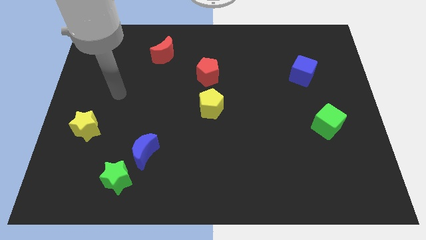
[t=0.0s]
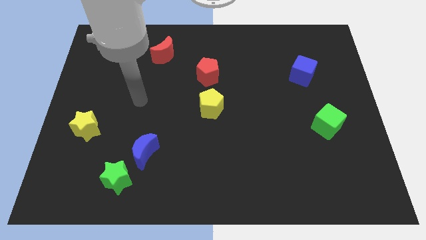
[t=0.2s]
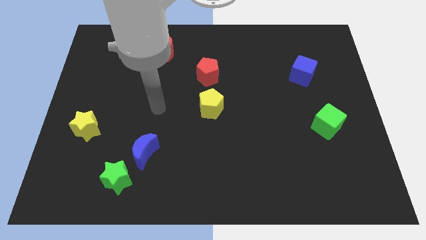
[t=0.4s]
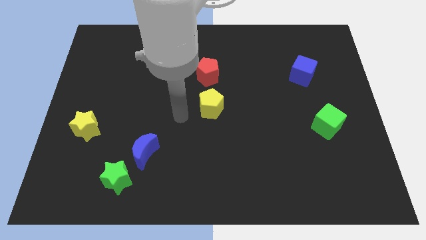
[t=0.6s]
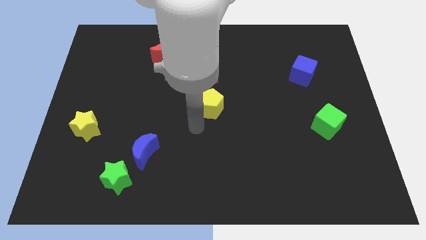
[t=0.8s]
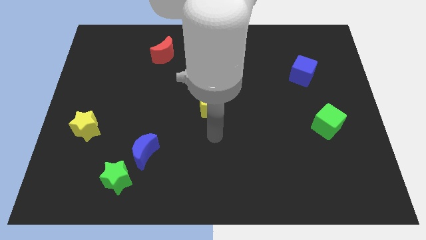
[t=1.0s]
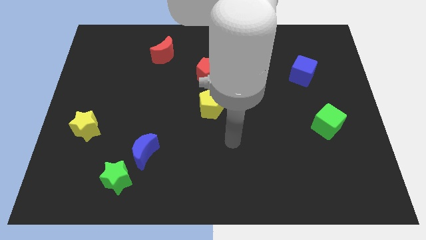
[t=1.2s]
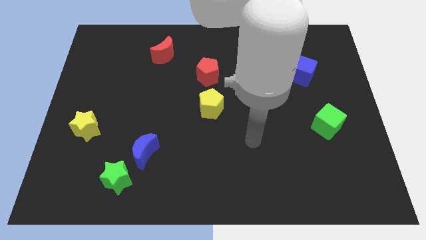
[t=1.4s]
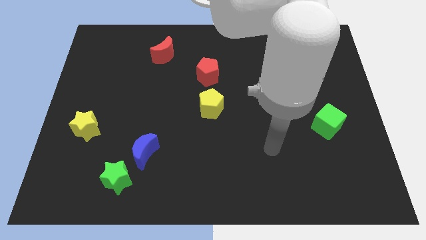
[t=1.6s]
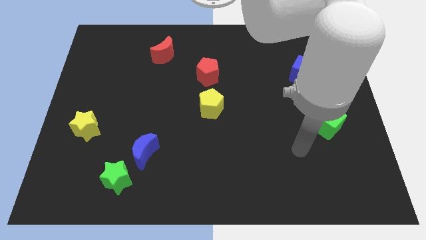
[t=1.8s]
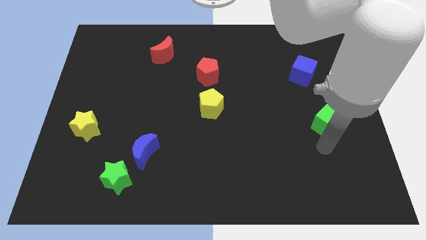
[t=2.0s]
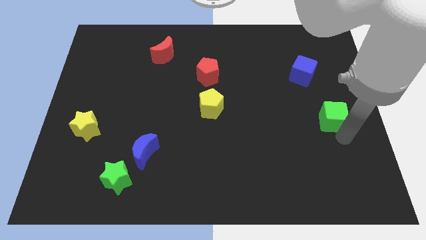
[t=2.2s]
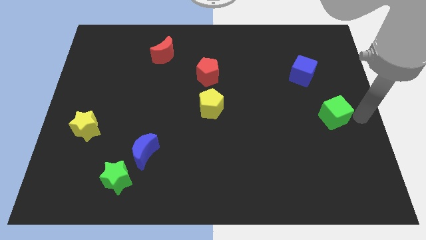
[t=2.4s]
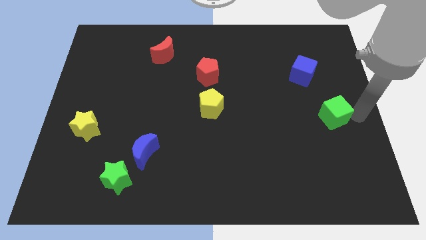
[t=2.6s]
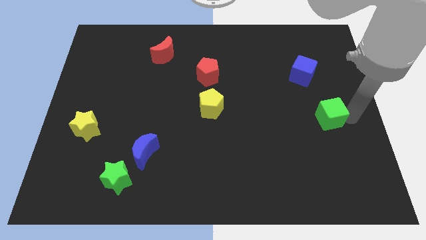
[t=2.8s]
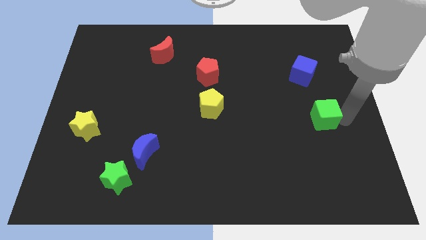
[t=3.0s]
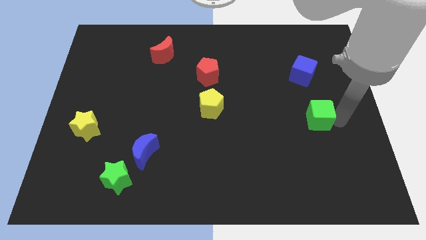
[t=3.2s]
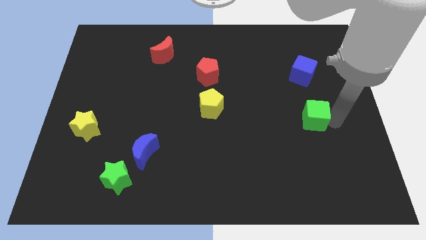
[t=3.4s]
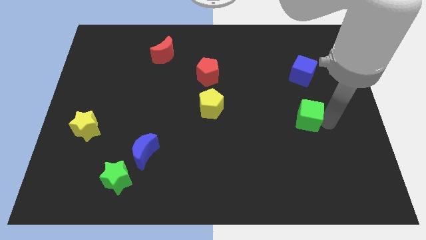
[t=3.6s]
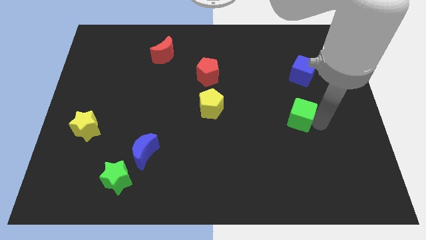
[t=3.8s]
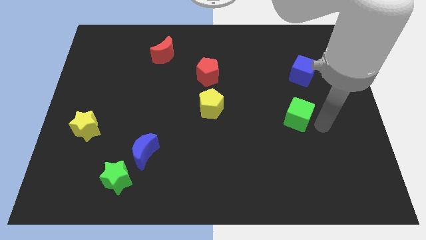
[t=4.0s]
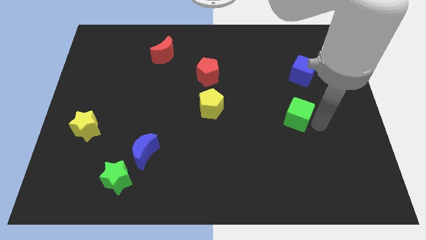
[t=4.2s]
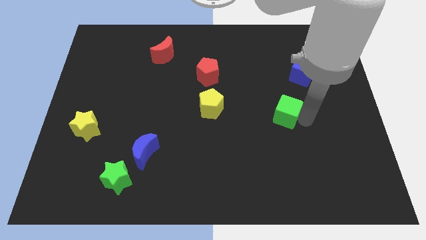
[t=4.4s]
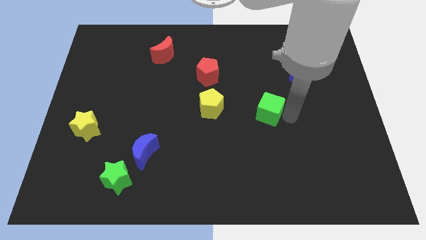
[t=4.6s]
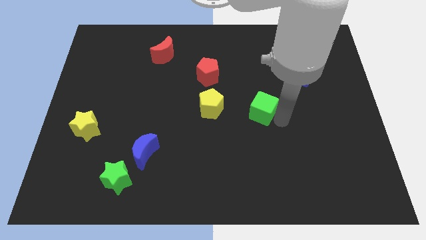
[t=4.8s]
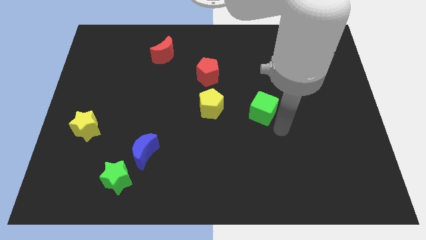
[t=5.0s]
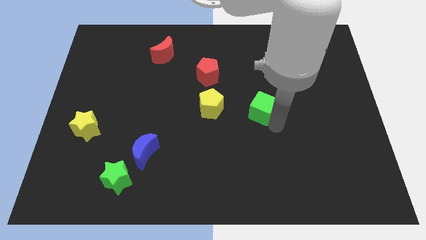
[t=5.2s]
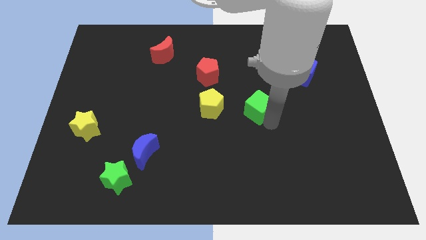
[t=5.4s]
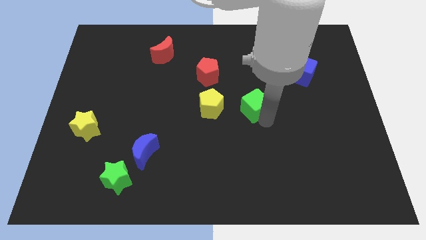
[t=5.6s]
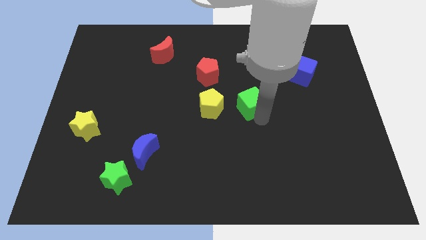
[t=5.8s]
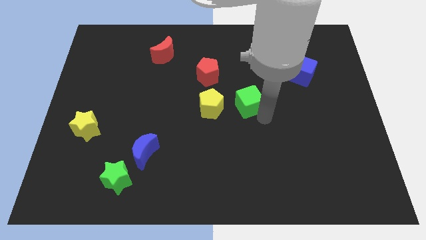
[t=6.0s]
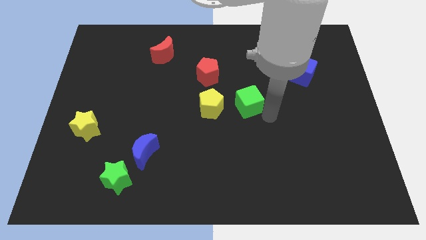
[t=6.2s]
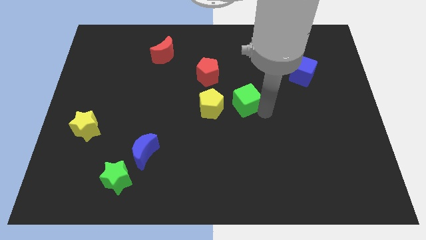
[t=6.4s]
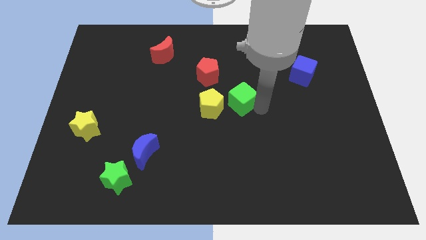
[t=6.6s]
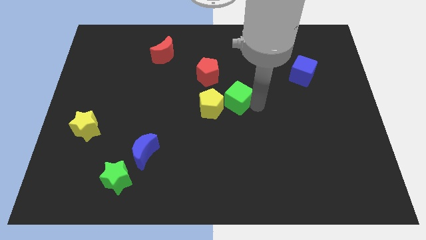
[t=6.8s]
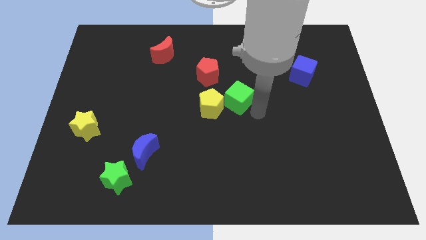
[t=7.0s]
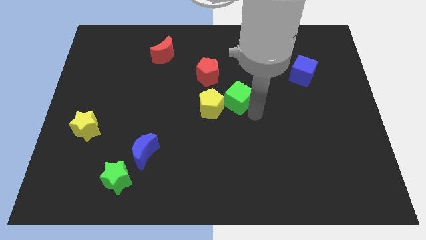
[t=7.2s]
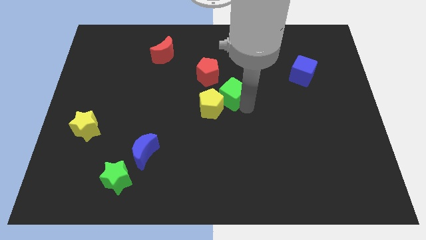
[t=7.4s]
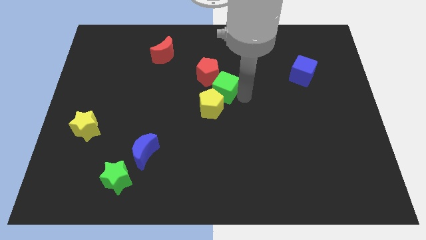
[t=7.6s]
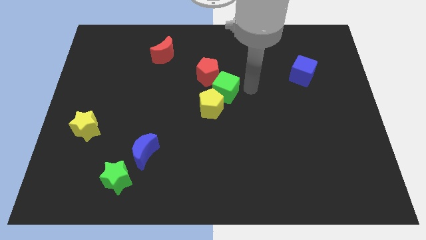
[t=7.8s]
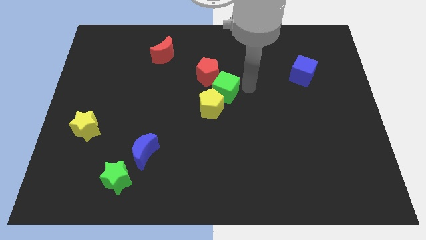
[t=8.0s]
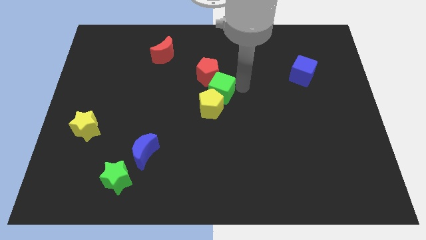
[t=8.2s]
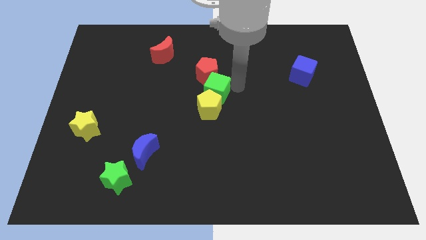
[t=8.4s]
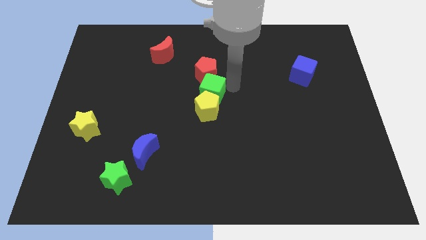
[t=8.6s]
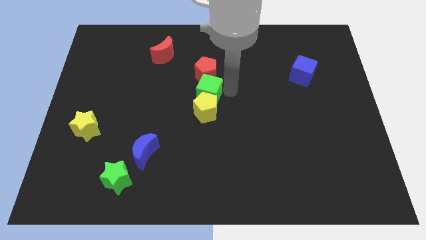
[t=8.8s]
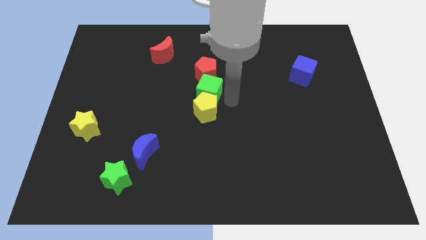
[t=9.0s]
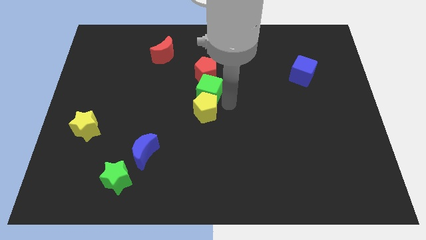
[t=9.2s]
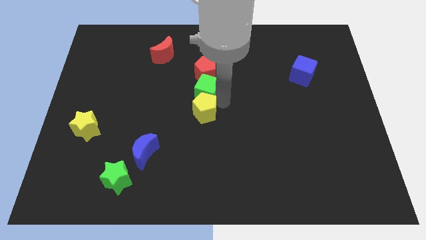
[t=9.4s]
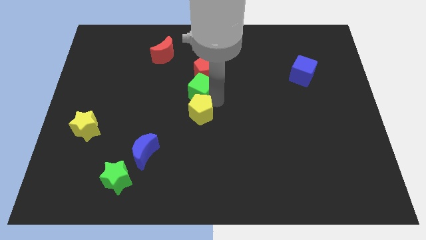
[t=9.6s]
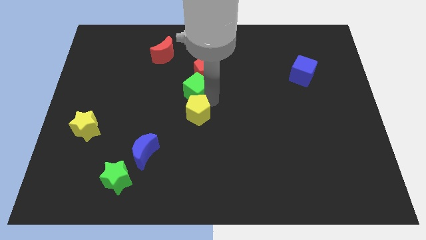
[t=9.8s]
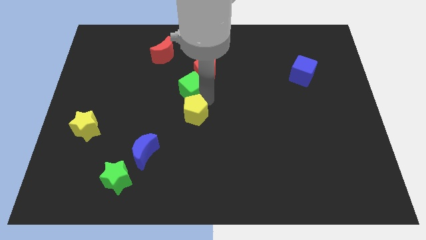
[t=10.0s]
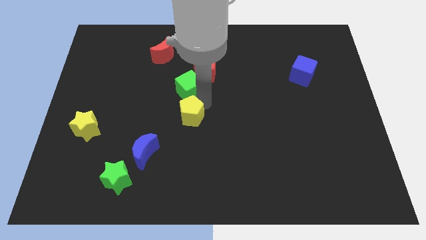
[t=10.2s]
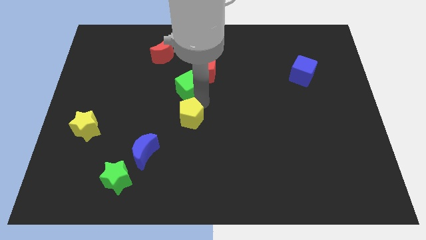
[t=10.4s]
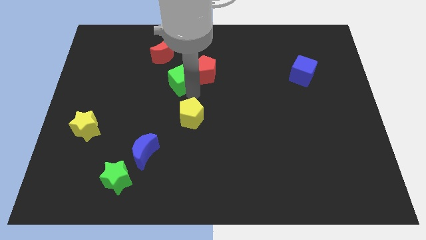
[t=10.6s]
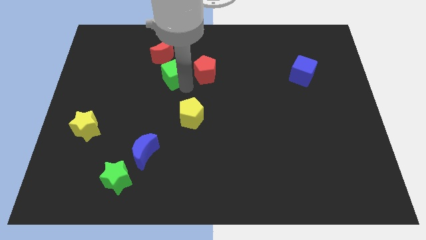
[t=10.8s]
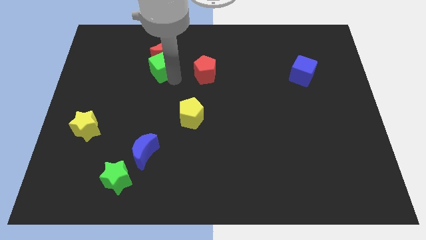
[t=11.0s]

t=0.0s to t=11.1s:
slide the green cube next to the red moon
